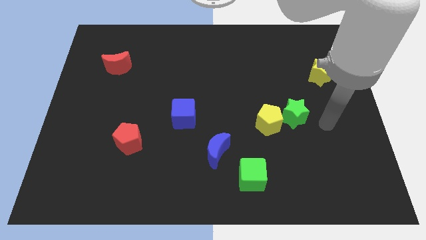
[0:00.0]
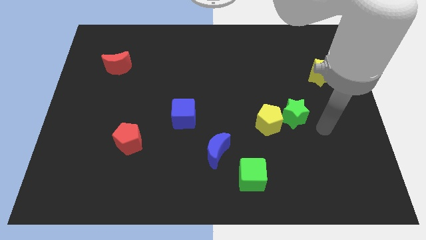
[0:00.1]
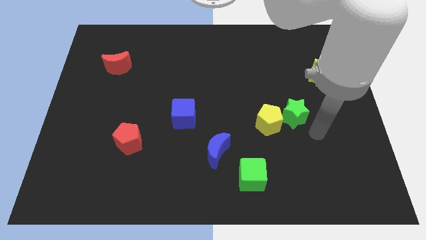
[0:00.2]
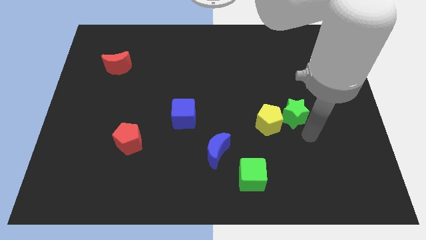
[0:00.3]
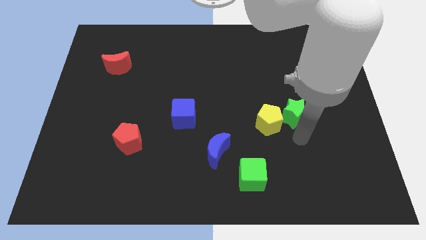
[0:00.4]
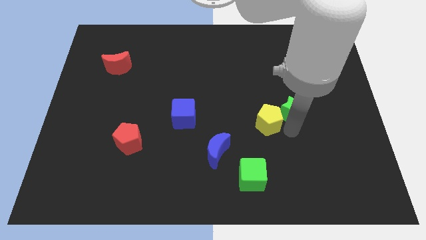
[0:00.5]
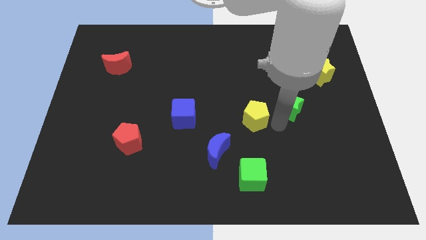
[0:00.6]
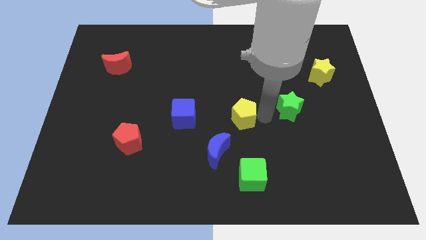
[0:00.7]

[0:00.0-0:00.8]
pull the green star apart from the yellow pentagon

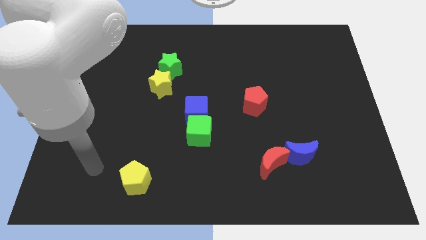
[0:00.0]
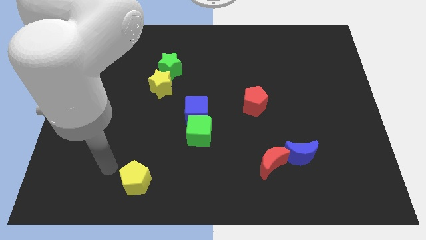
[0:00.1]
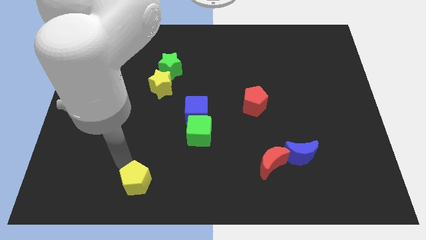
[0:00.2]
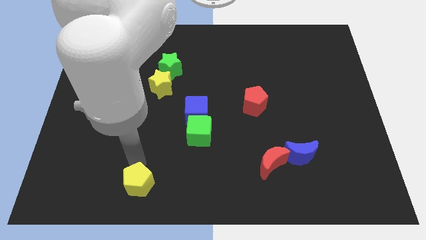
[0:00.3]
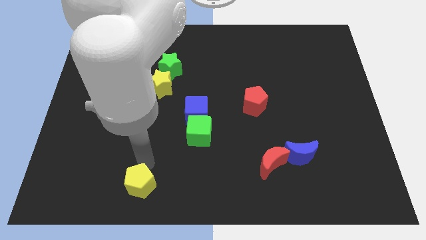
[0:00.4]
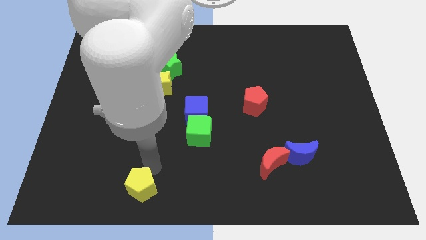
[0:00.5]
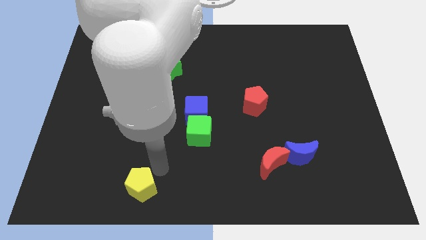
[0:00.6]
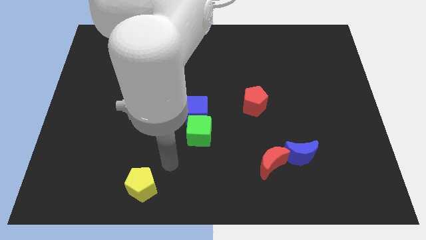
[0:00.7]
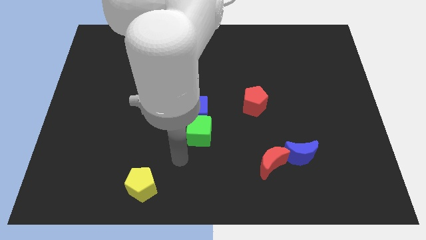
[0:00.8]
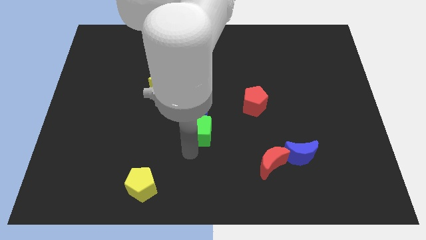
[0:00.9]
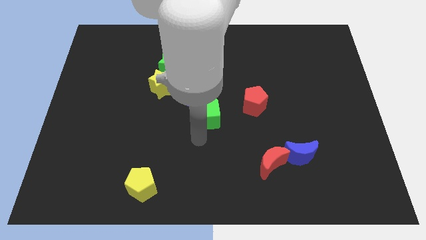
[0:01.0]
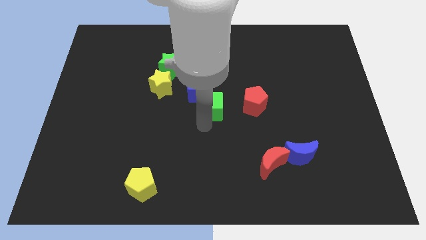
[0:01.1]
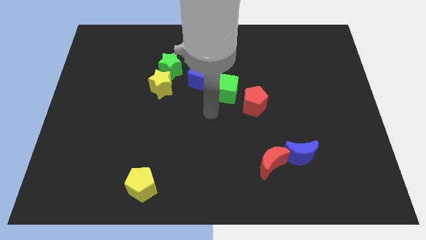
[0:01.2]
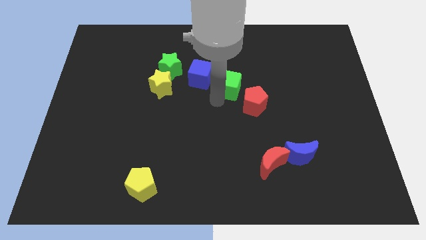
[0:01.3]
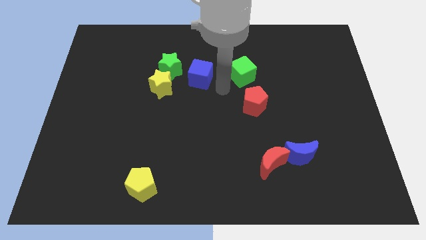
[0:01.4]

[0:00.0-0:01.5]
separate the blue cube from the green cube

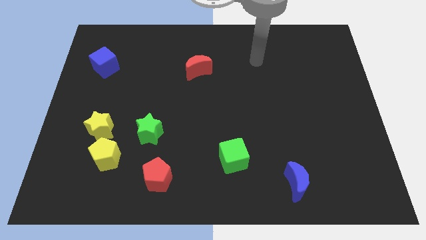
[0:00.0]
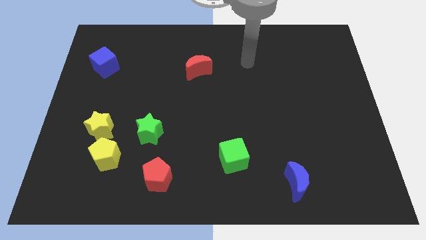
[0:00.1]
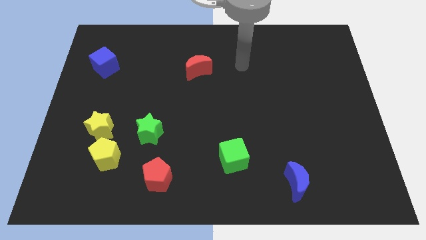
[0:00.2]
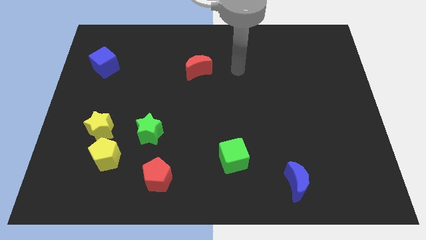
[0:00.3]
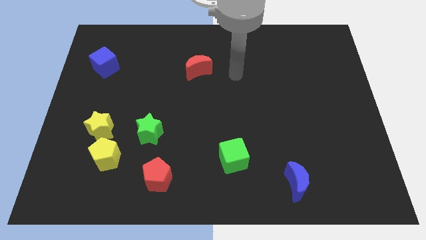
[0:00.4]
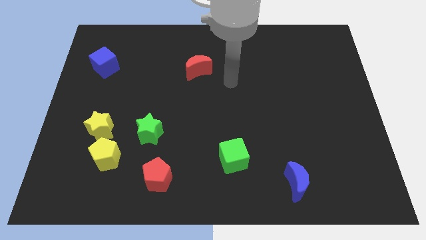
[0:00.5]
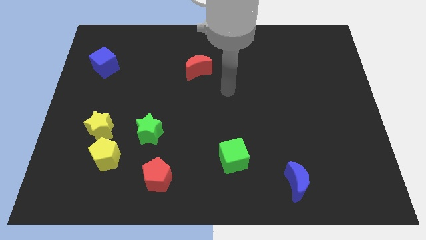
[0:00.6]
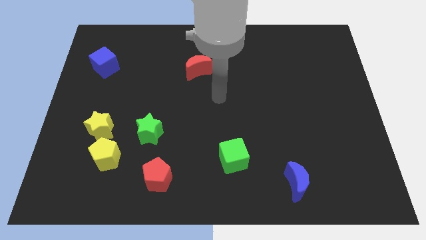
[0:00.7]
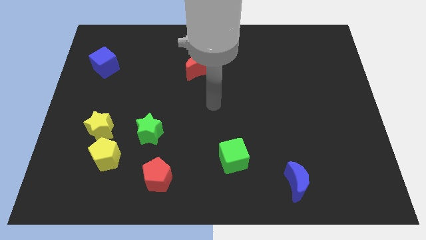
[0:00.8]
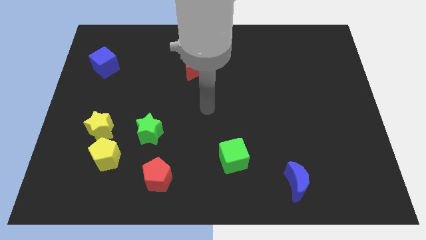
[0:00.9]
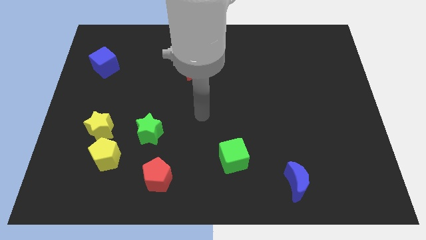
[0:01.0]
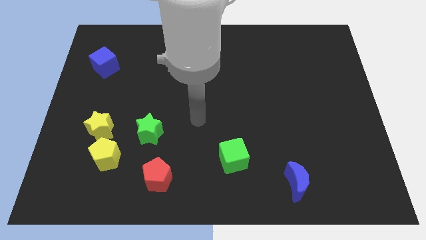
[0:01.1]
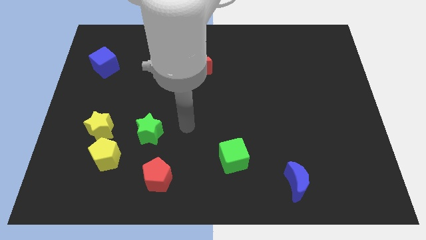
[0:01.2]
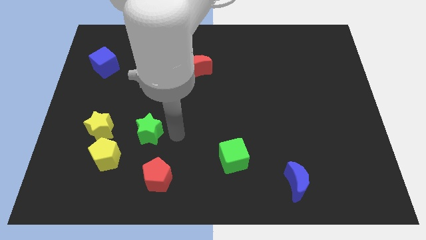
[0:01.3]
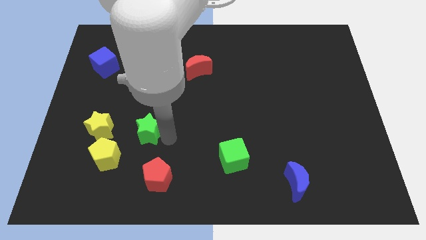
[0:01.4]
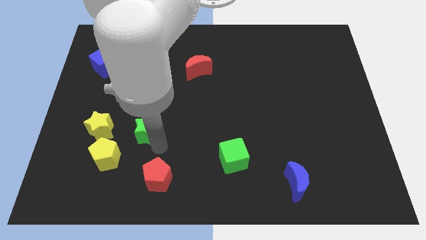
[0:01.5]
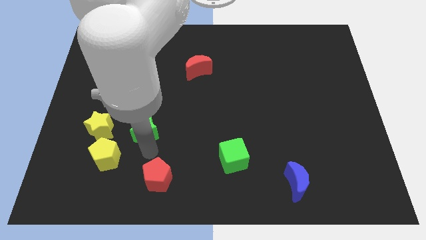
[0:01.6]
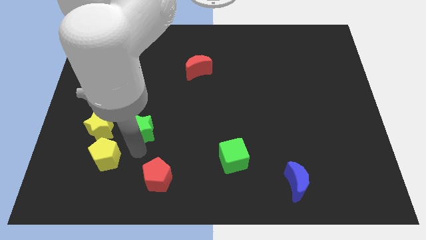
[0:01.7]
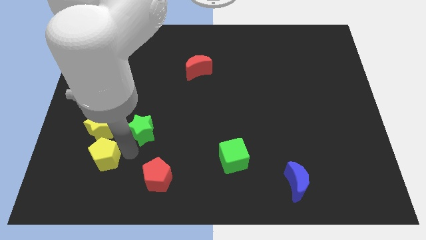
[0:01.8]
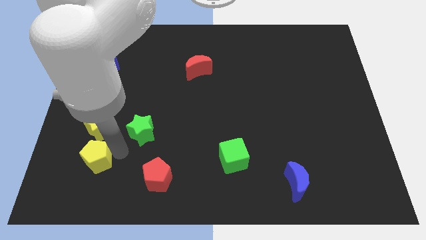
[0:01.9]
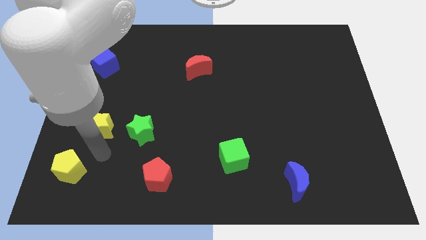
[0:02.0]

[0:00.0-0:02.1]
move the yellow star away from the yellow pentagon

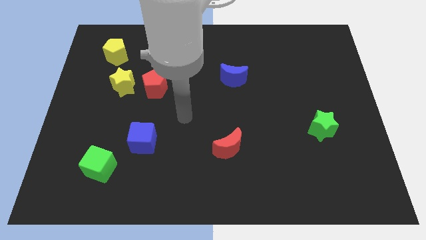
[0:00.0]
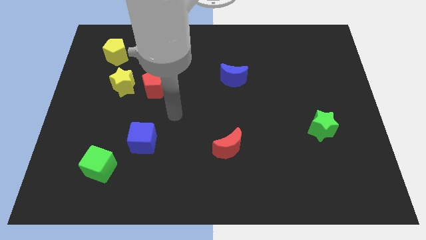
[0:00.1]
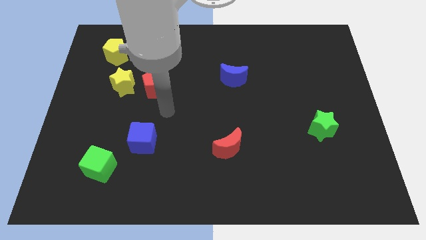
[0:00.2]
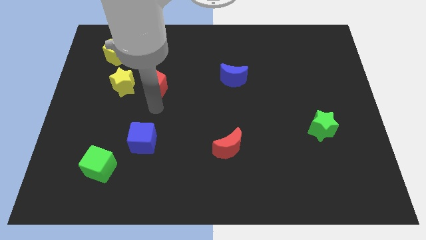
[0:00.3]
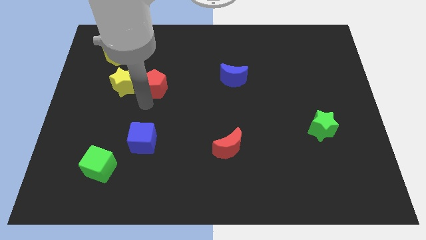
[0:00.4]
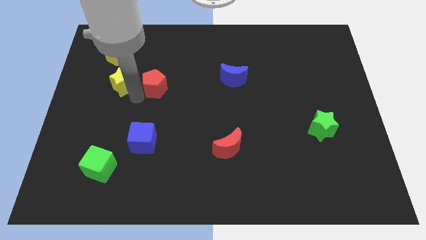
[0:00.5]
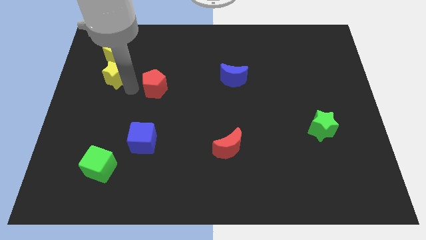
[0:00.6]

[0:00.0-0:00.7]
pull the red pentagon apart from the yellow star

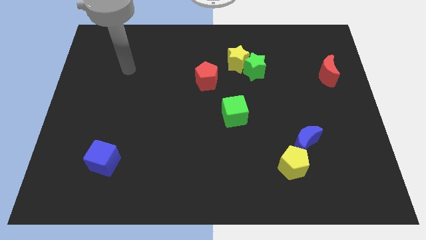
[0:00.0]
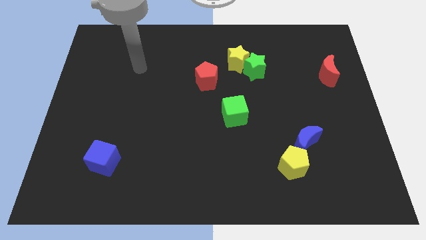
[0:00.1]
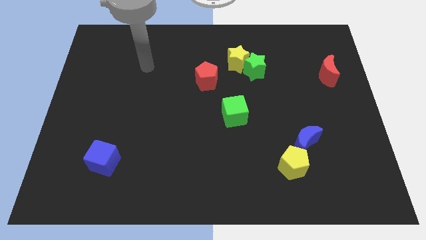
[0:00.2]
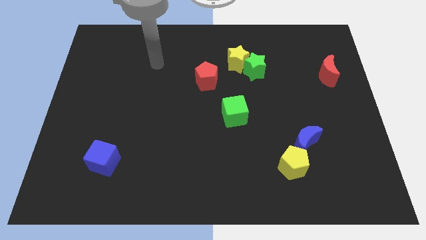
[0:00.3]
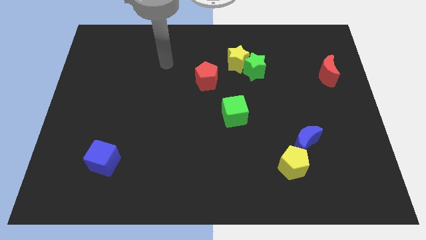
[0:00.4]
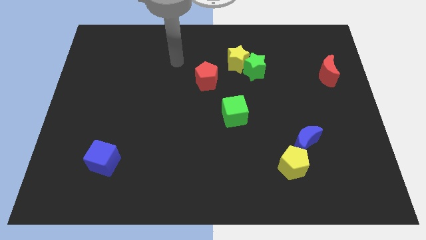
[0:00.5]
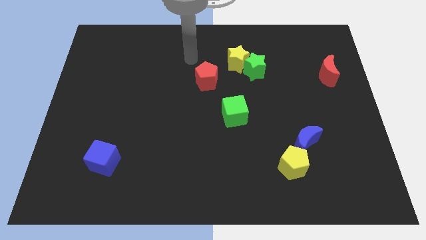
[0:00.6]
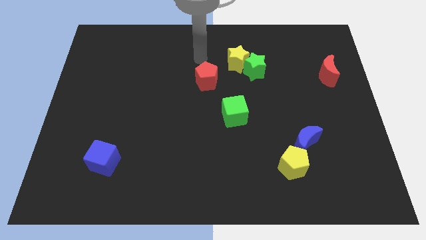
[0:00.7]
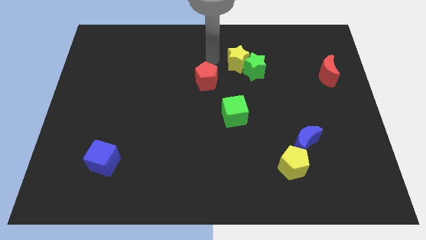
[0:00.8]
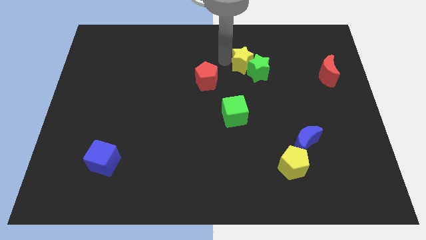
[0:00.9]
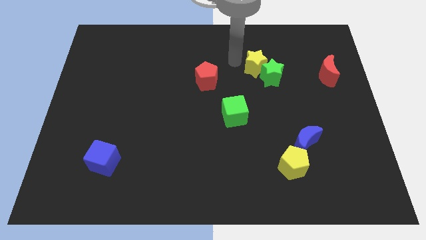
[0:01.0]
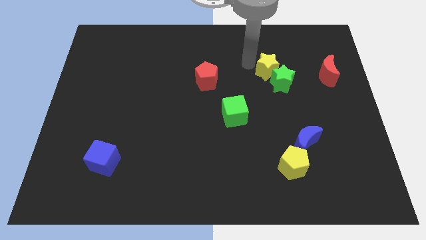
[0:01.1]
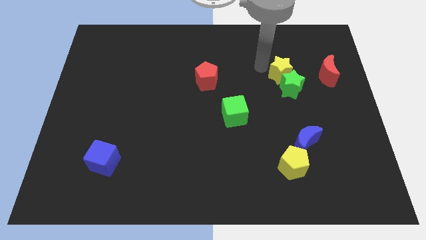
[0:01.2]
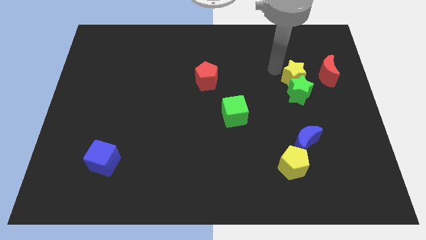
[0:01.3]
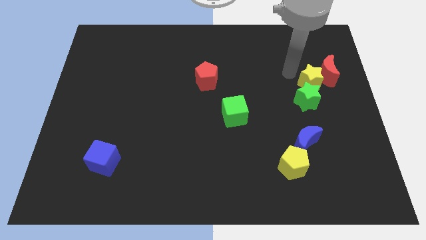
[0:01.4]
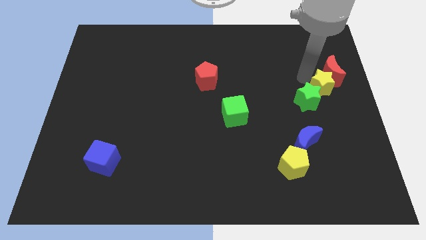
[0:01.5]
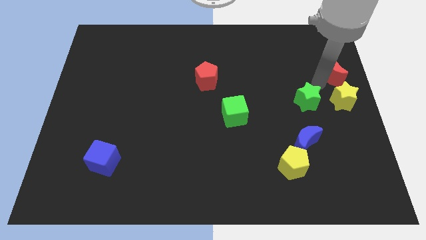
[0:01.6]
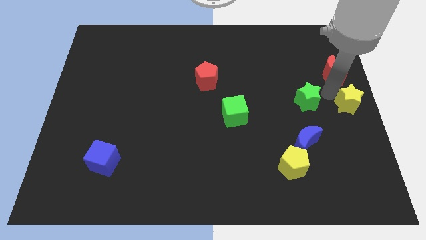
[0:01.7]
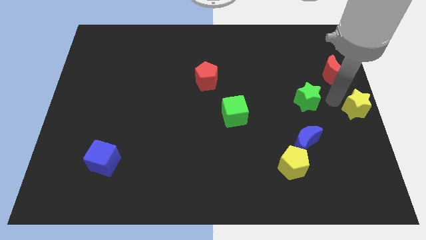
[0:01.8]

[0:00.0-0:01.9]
separate the green star from the yellow star

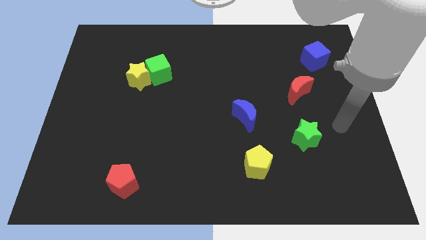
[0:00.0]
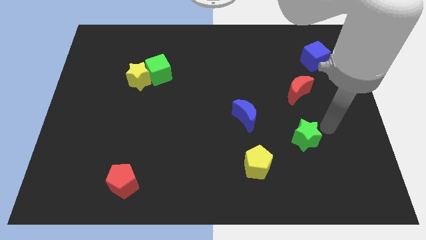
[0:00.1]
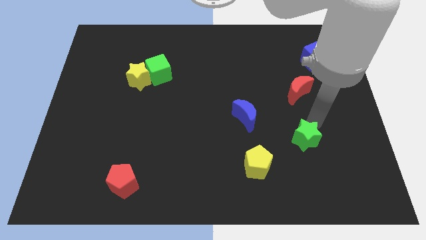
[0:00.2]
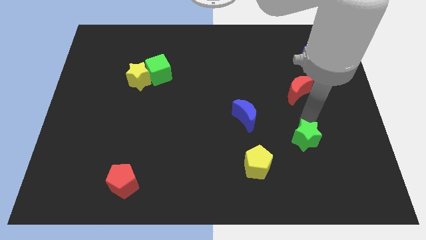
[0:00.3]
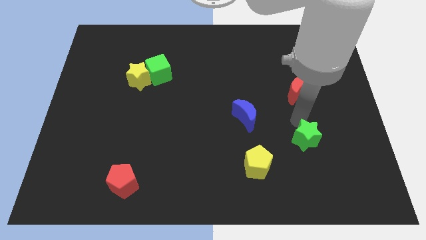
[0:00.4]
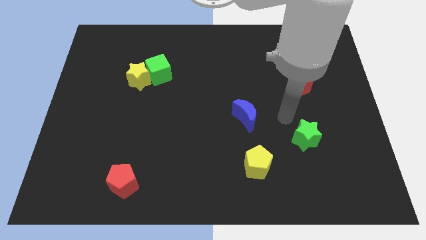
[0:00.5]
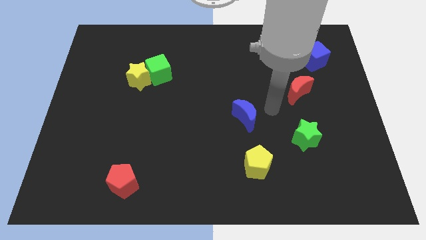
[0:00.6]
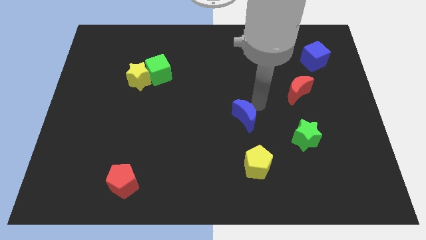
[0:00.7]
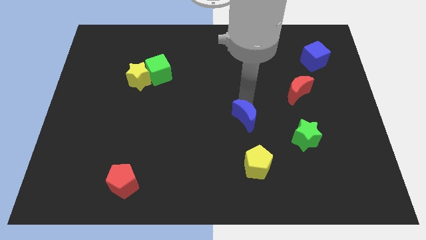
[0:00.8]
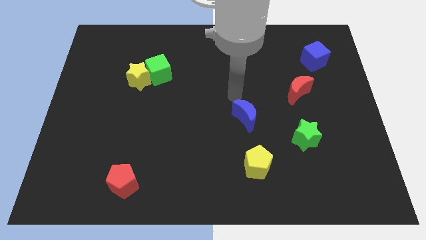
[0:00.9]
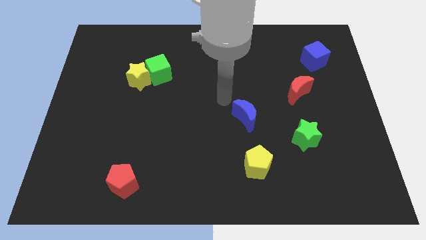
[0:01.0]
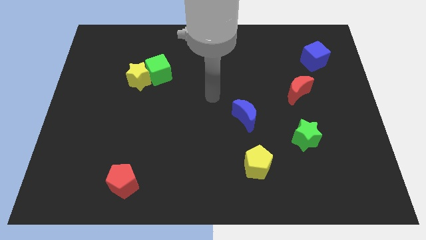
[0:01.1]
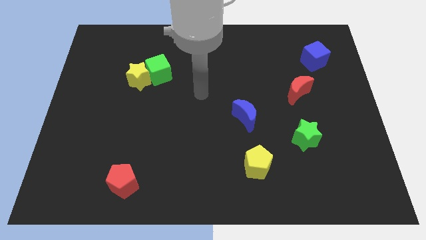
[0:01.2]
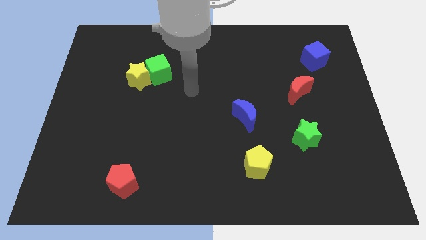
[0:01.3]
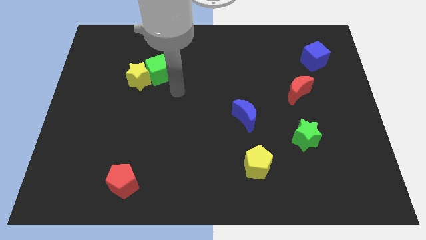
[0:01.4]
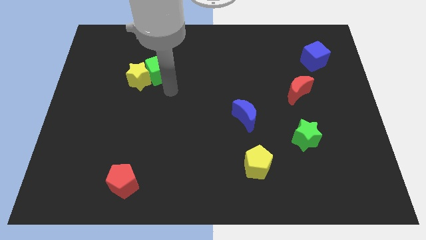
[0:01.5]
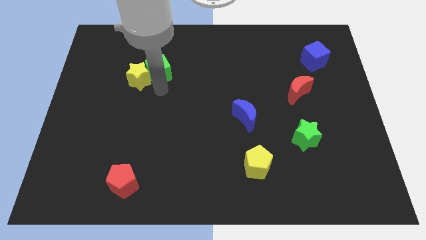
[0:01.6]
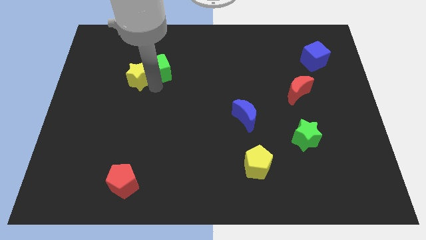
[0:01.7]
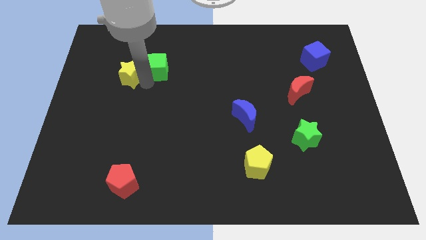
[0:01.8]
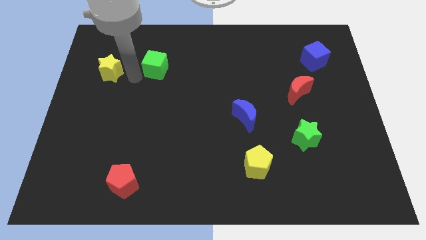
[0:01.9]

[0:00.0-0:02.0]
separate the green cube from the yellow star

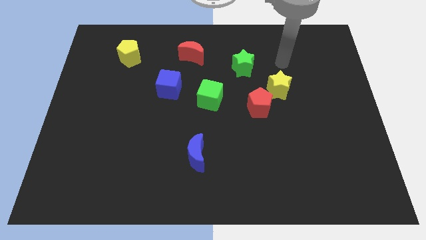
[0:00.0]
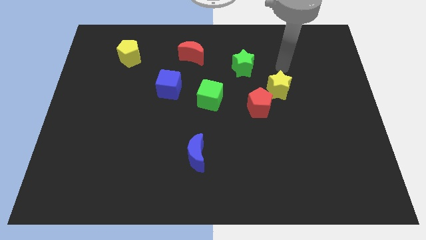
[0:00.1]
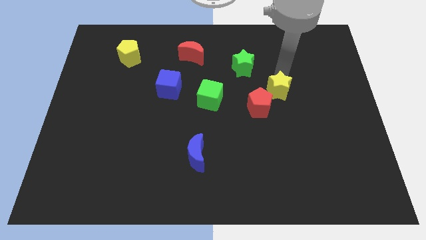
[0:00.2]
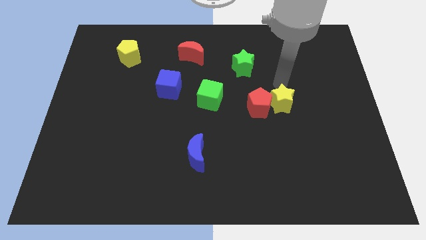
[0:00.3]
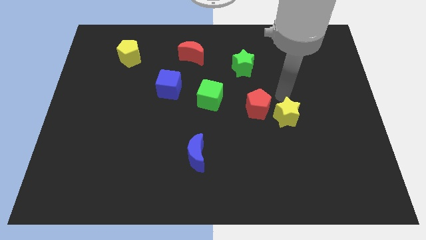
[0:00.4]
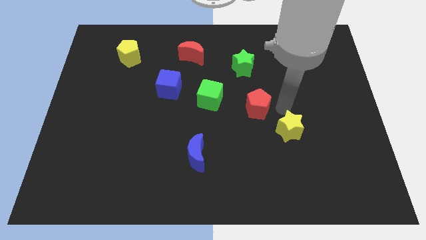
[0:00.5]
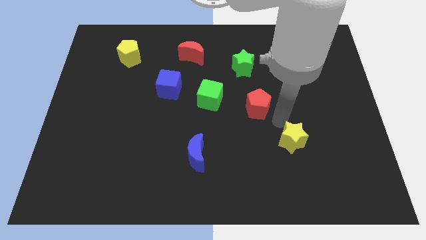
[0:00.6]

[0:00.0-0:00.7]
separate the red pentagon from the yellow star
